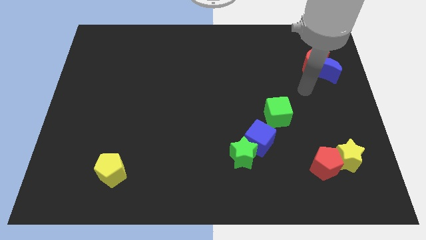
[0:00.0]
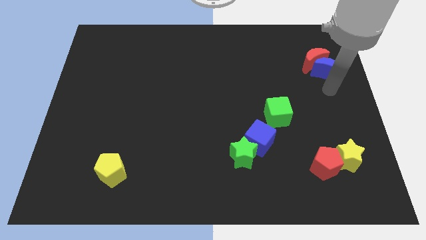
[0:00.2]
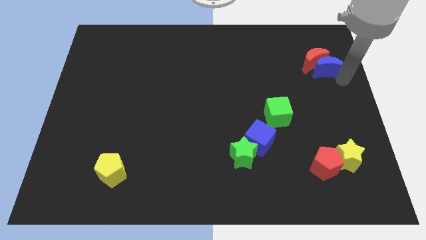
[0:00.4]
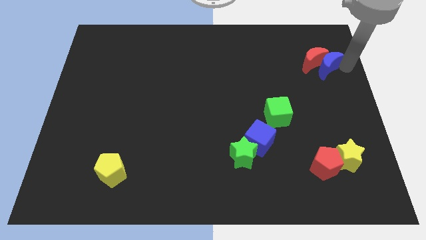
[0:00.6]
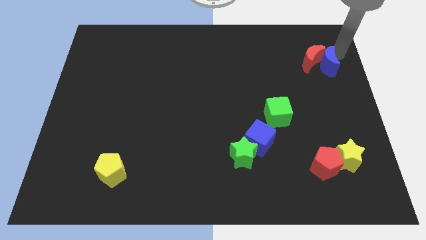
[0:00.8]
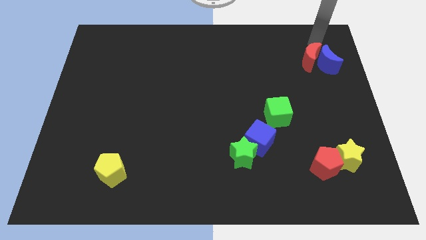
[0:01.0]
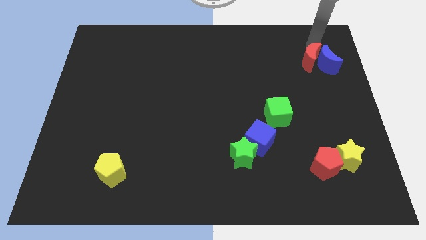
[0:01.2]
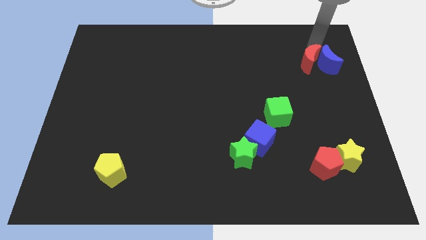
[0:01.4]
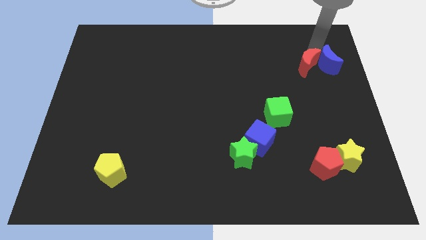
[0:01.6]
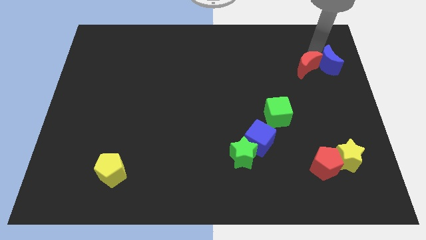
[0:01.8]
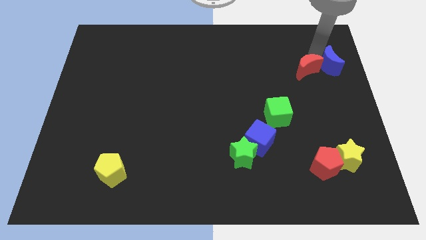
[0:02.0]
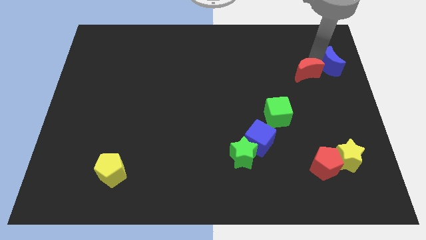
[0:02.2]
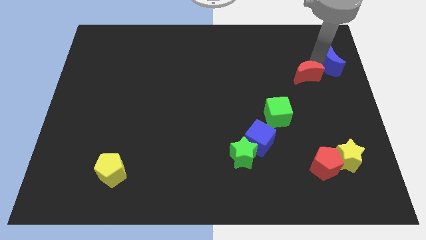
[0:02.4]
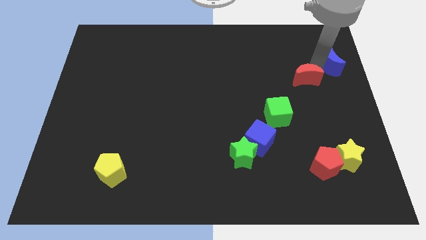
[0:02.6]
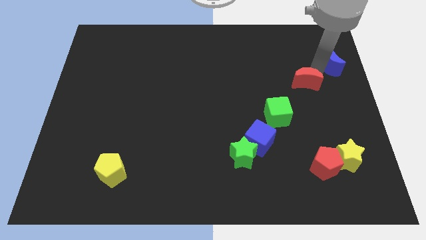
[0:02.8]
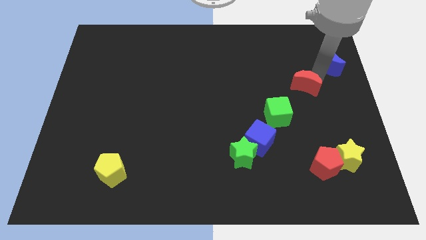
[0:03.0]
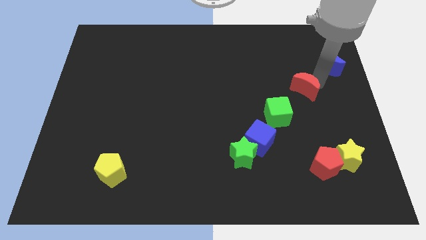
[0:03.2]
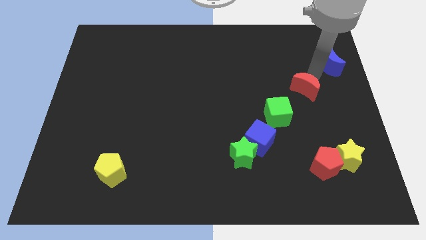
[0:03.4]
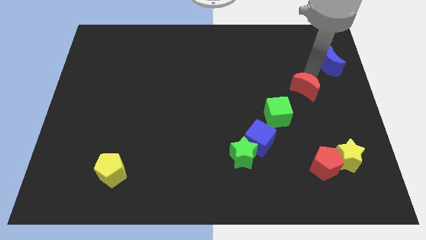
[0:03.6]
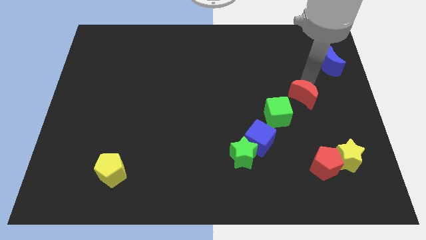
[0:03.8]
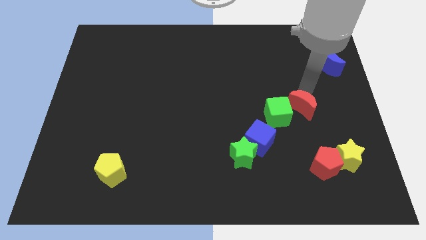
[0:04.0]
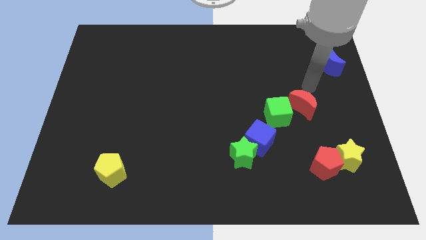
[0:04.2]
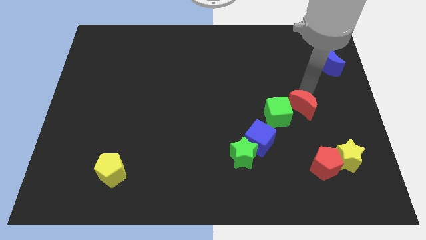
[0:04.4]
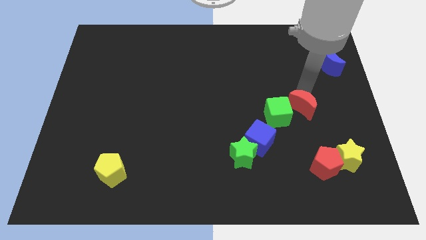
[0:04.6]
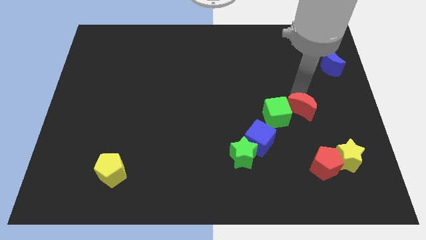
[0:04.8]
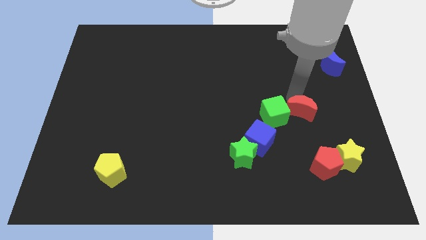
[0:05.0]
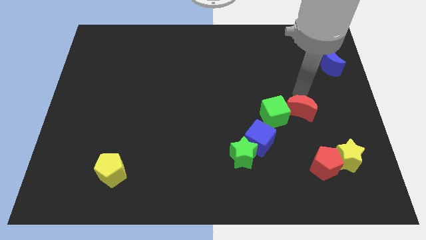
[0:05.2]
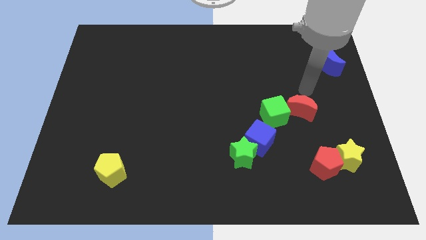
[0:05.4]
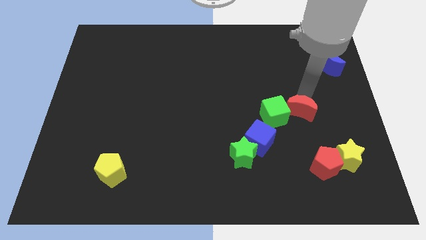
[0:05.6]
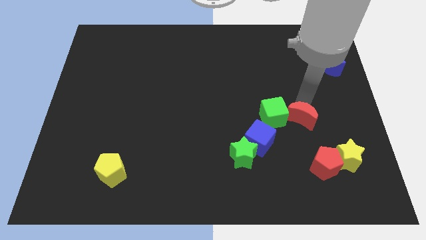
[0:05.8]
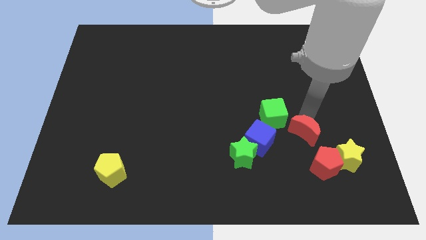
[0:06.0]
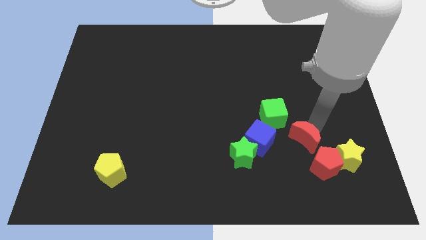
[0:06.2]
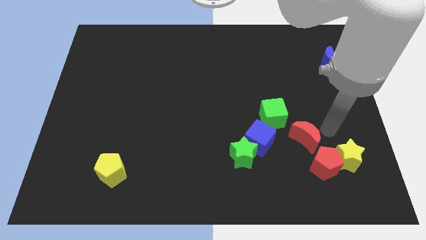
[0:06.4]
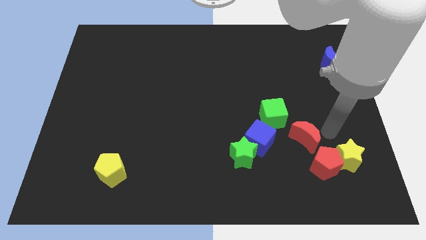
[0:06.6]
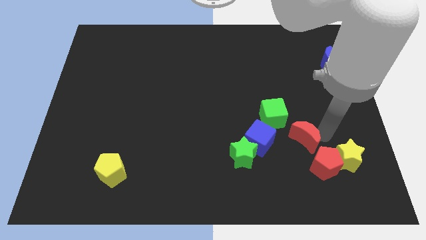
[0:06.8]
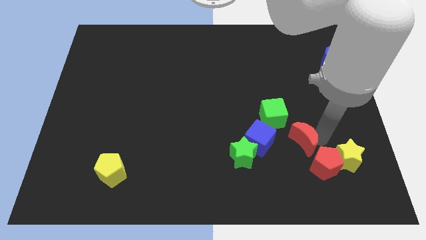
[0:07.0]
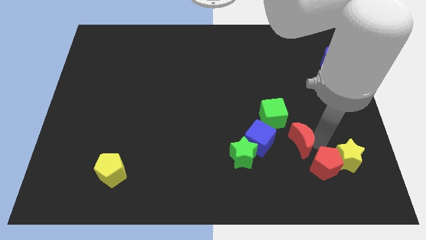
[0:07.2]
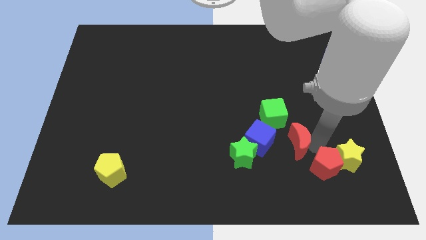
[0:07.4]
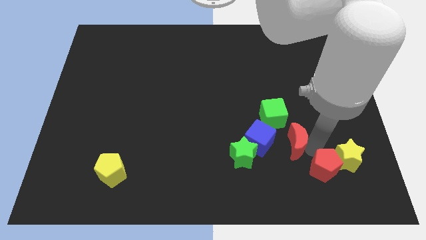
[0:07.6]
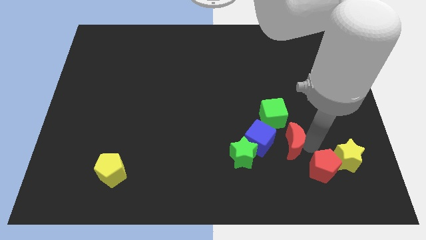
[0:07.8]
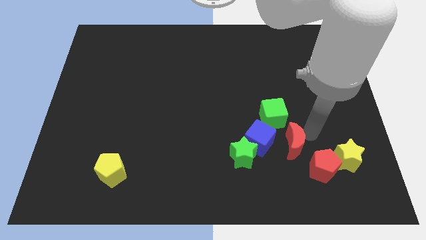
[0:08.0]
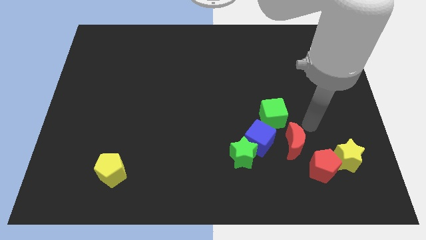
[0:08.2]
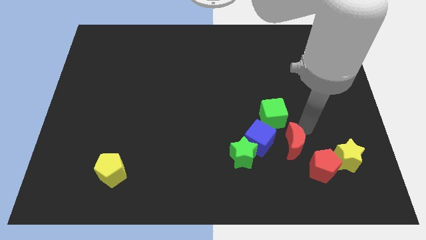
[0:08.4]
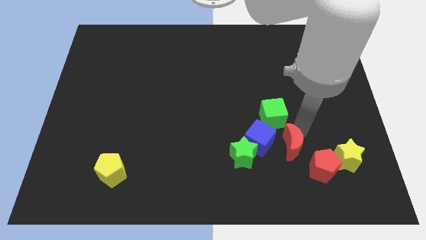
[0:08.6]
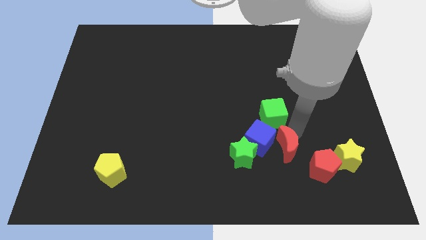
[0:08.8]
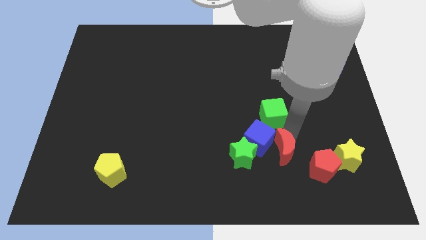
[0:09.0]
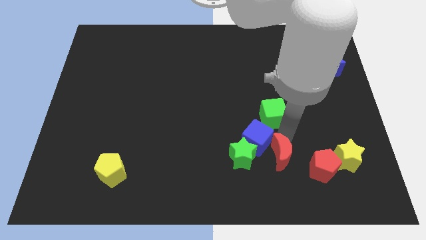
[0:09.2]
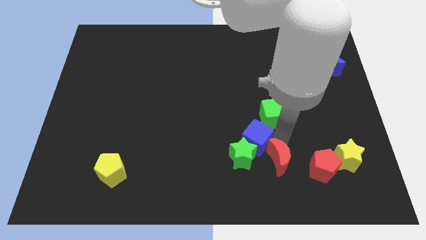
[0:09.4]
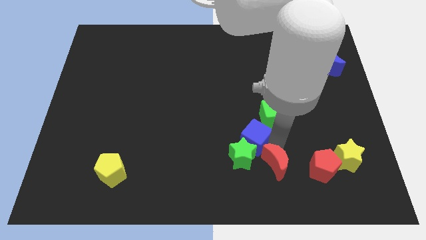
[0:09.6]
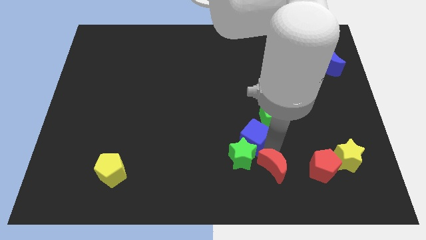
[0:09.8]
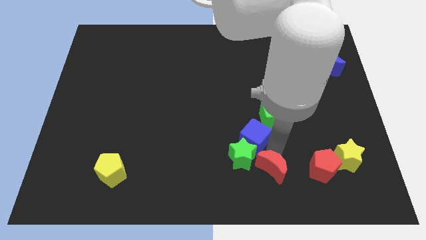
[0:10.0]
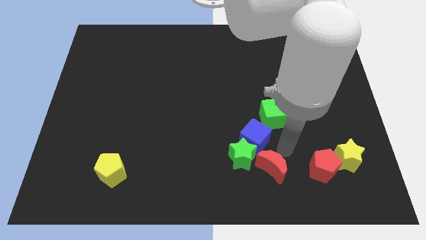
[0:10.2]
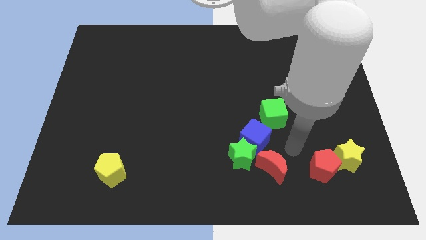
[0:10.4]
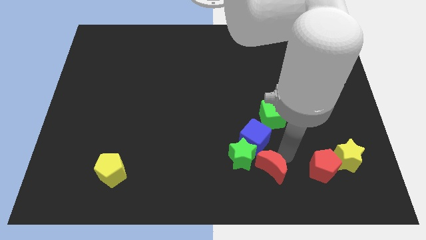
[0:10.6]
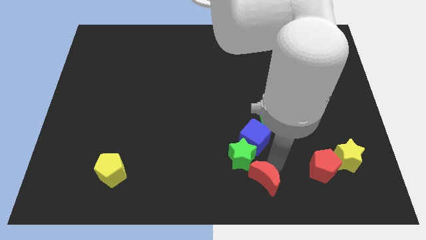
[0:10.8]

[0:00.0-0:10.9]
move the red moon to the bottom side
